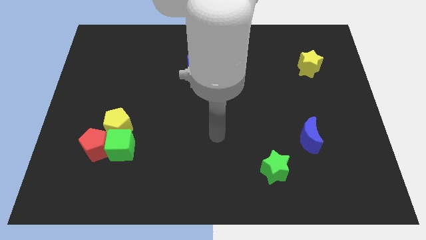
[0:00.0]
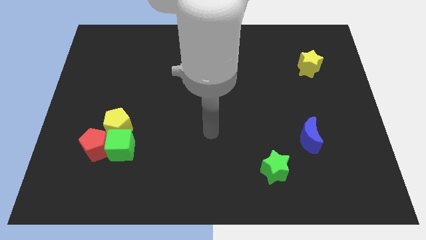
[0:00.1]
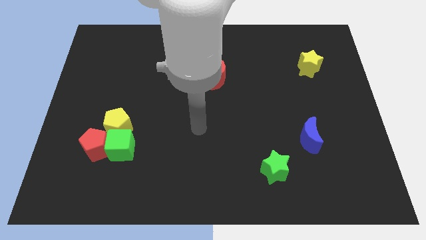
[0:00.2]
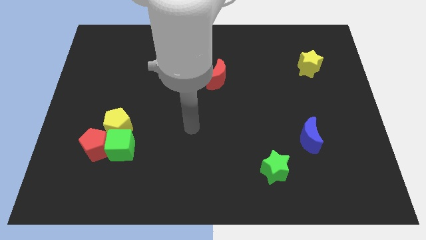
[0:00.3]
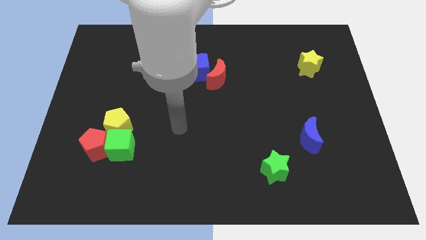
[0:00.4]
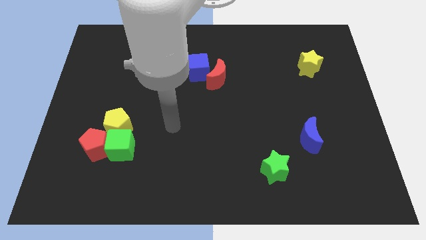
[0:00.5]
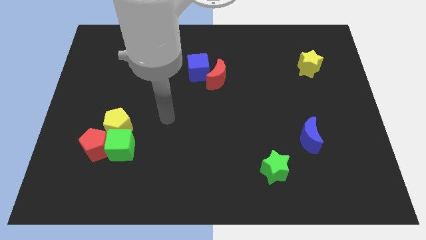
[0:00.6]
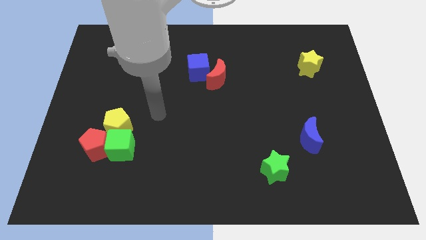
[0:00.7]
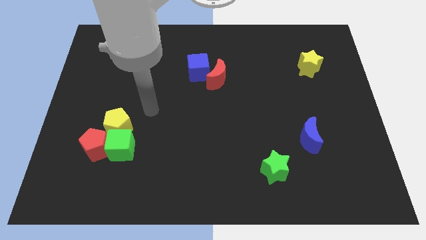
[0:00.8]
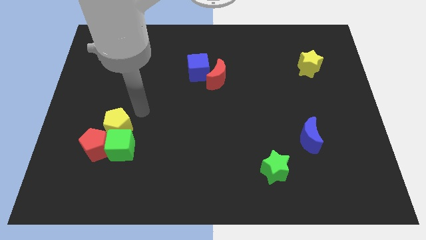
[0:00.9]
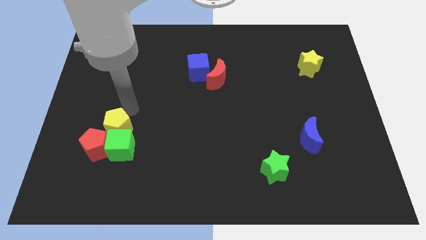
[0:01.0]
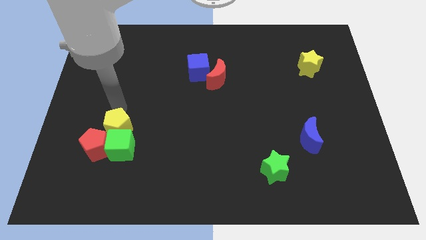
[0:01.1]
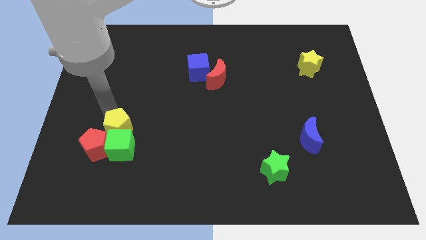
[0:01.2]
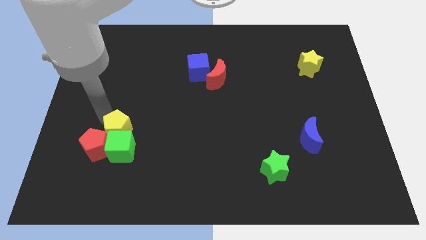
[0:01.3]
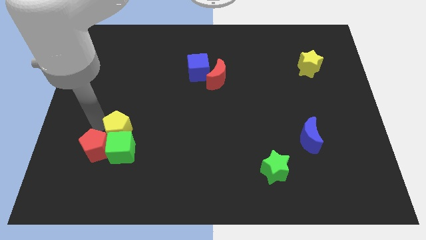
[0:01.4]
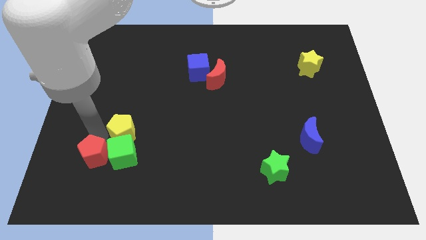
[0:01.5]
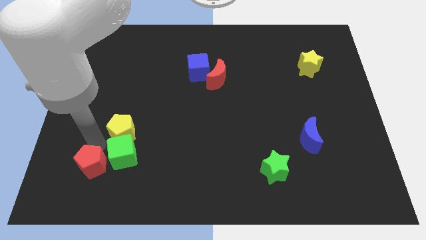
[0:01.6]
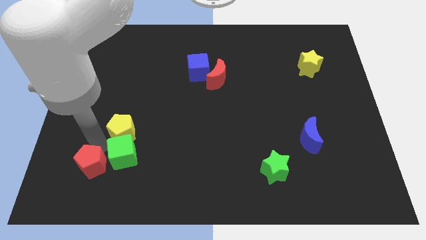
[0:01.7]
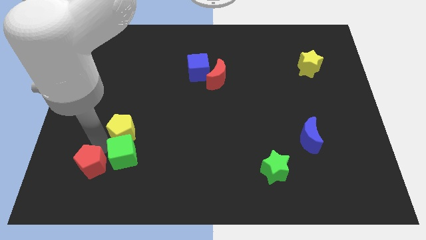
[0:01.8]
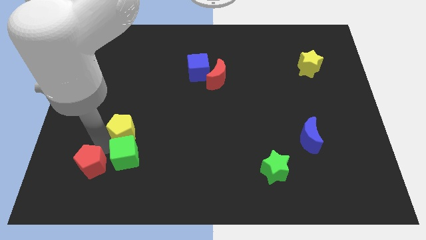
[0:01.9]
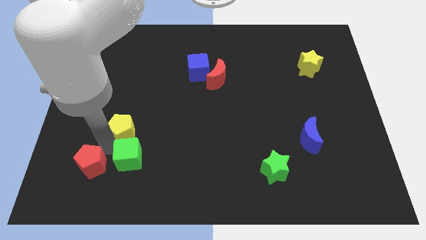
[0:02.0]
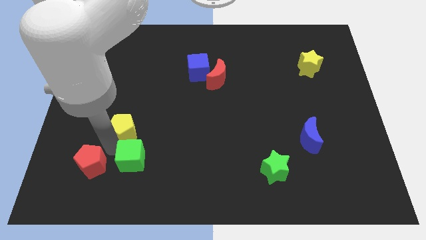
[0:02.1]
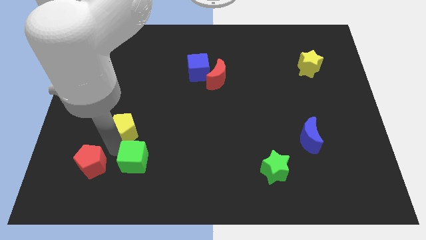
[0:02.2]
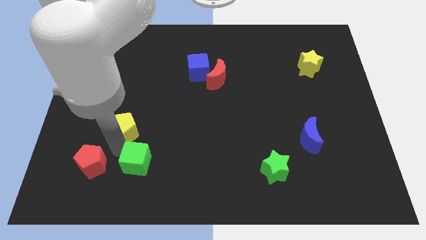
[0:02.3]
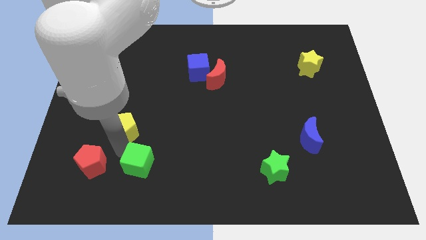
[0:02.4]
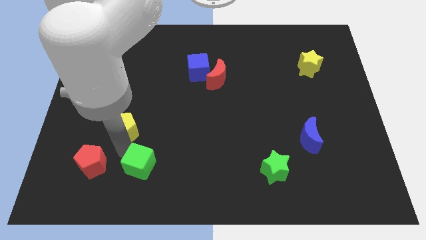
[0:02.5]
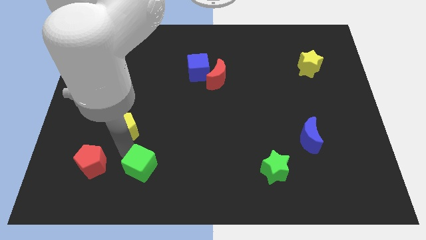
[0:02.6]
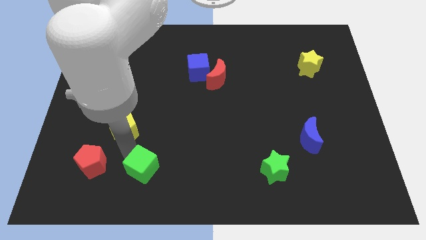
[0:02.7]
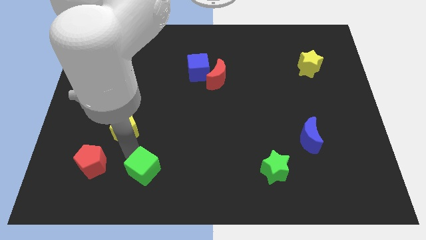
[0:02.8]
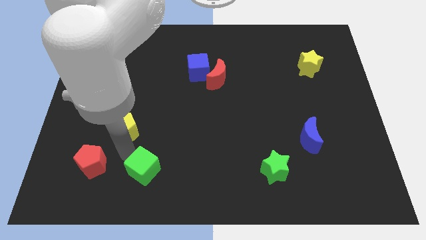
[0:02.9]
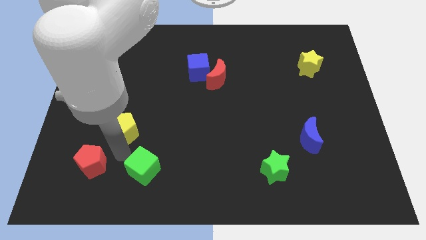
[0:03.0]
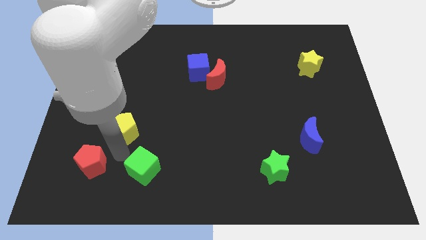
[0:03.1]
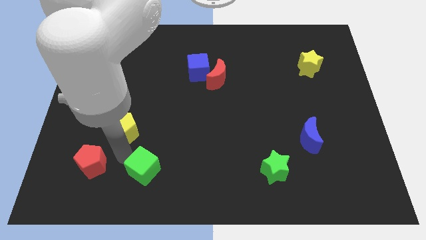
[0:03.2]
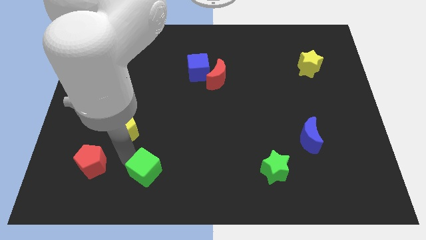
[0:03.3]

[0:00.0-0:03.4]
pull the green cube apart from the red pentagon and yellow pentagon

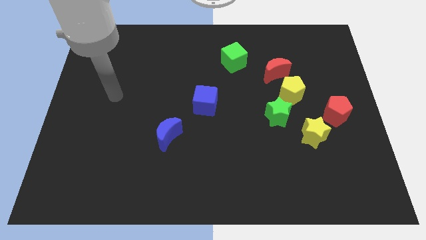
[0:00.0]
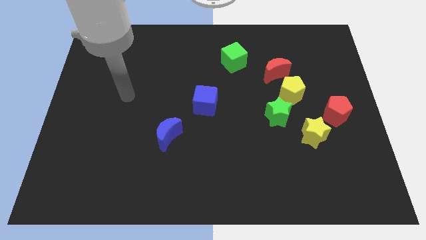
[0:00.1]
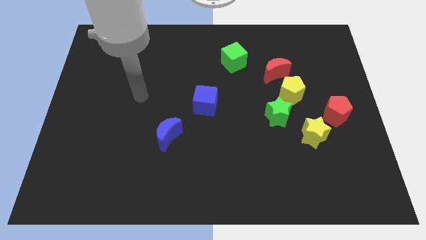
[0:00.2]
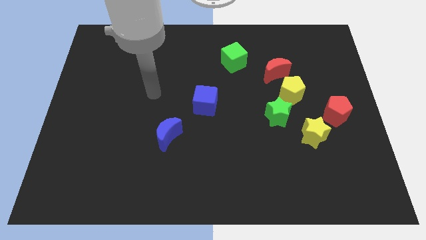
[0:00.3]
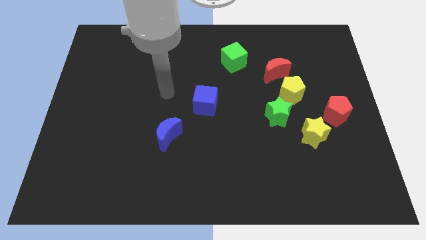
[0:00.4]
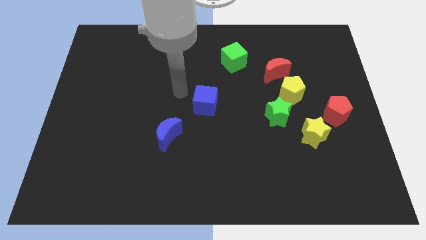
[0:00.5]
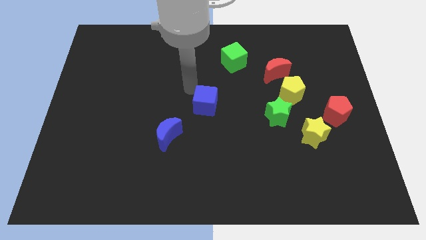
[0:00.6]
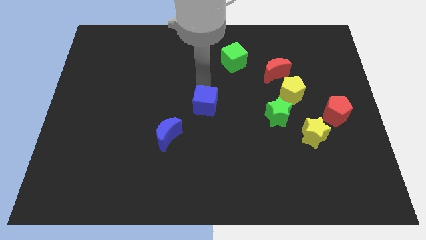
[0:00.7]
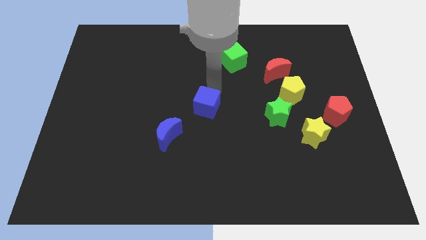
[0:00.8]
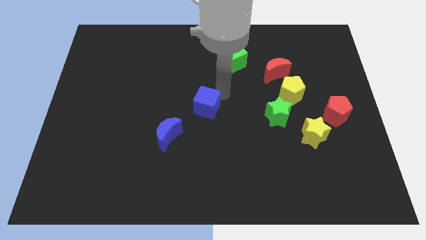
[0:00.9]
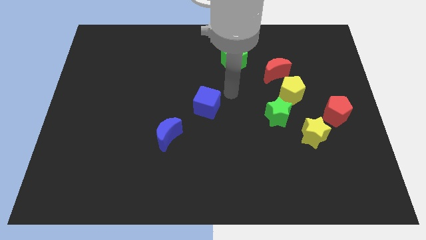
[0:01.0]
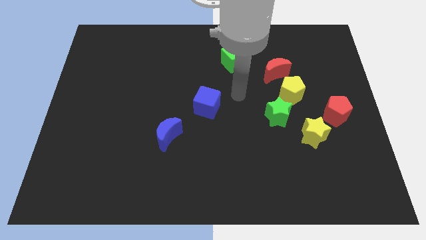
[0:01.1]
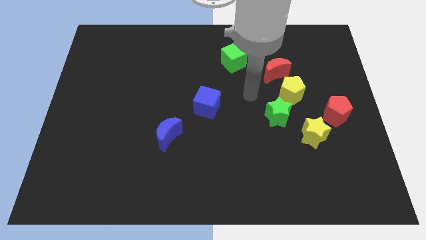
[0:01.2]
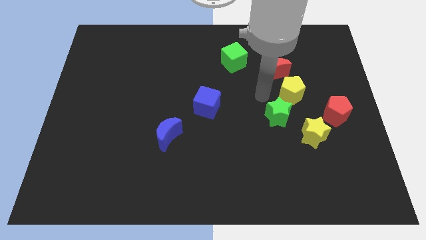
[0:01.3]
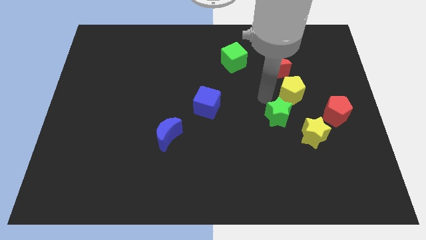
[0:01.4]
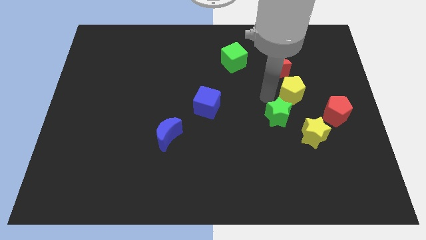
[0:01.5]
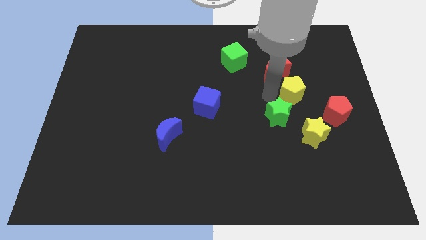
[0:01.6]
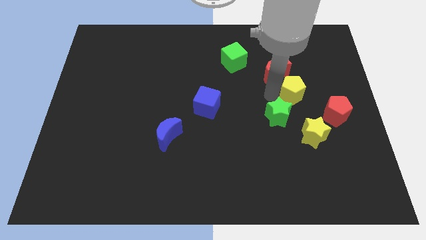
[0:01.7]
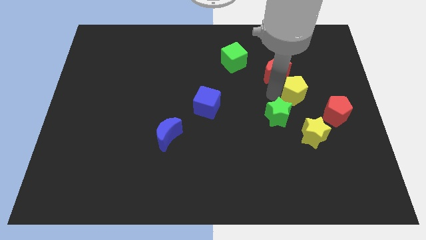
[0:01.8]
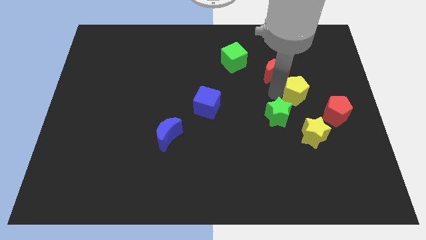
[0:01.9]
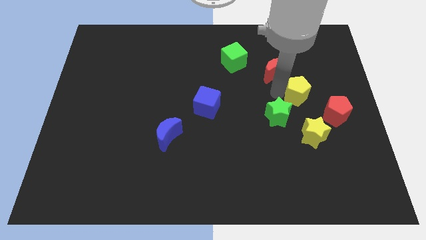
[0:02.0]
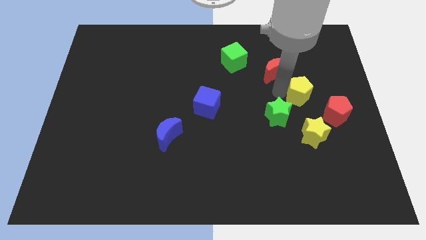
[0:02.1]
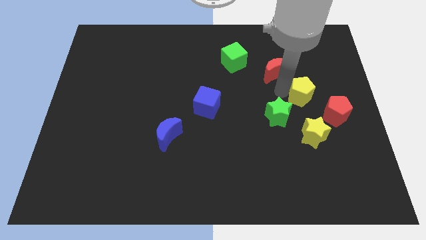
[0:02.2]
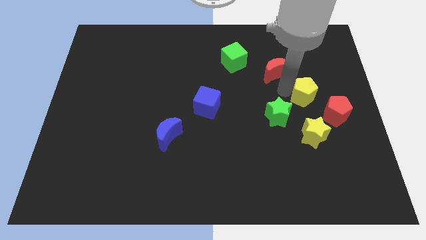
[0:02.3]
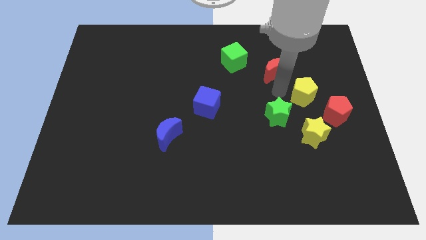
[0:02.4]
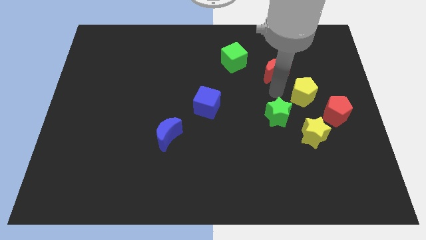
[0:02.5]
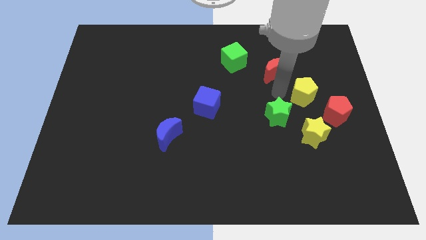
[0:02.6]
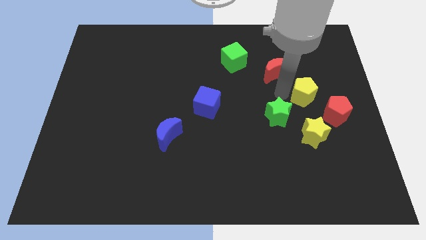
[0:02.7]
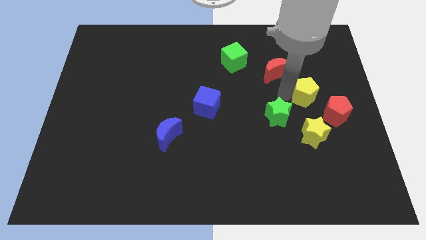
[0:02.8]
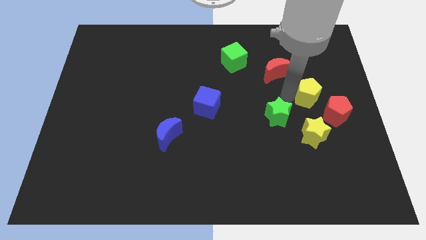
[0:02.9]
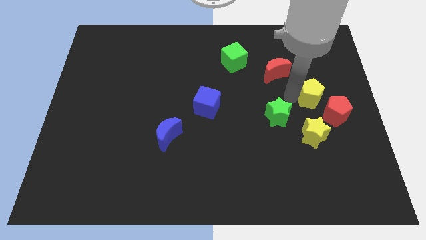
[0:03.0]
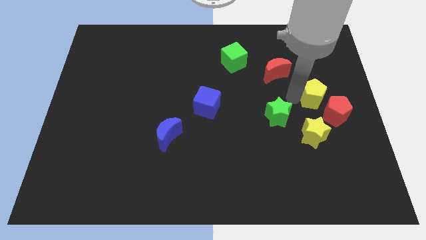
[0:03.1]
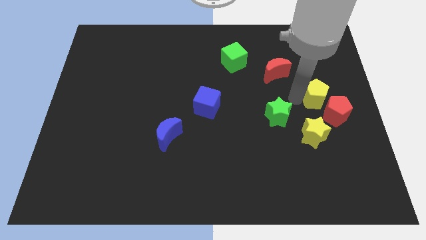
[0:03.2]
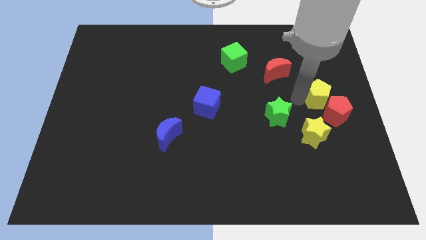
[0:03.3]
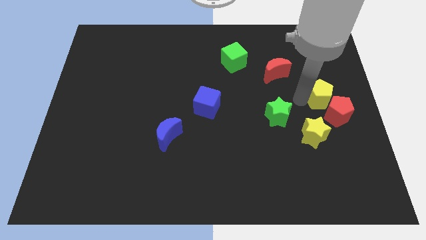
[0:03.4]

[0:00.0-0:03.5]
move the yellow pentagon away from the green star and red moon

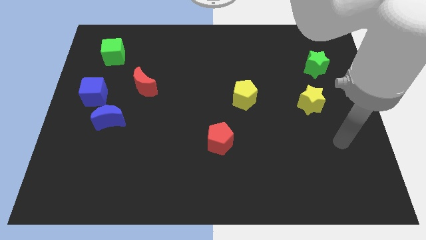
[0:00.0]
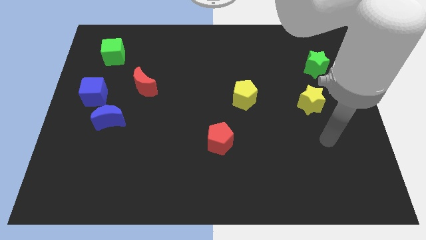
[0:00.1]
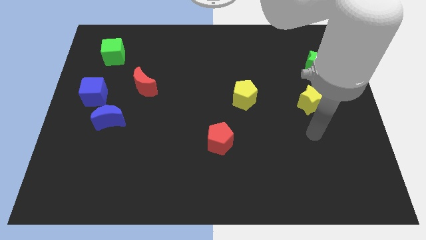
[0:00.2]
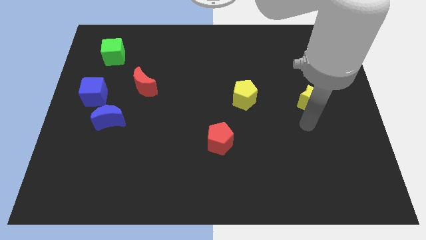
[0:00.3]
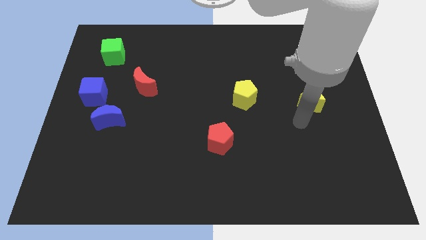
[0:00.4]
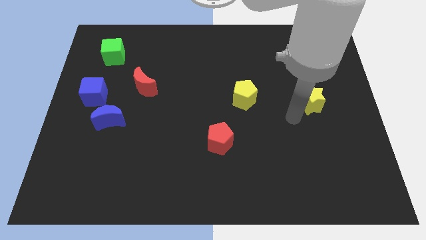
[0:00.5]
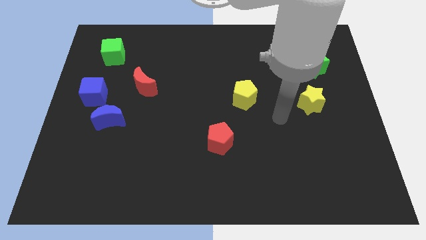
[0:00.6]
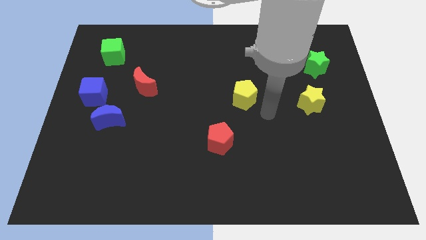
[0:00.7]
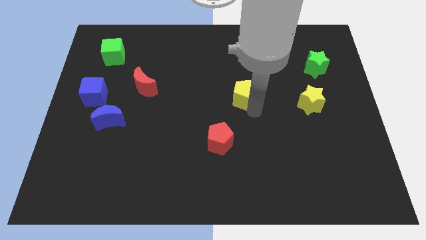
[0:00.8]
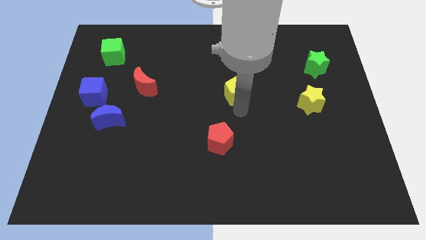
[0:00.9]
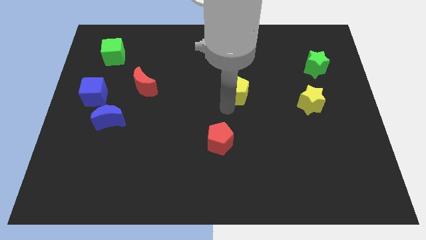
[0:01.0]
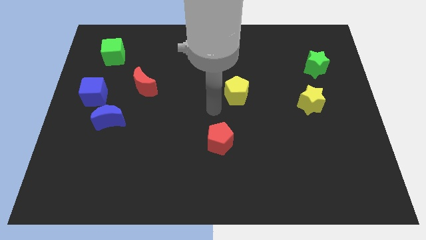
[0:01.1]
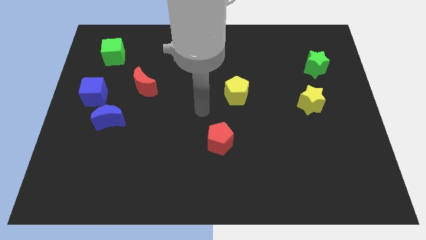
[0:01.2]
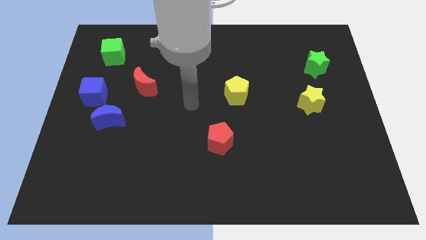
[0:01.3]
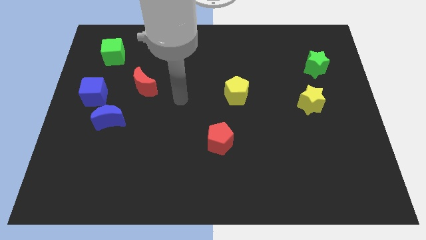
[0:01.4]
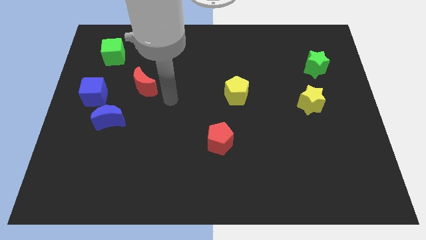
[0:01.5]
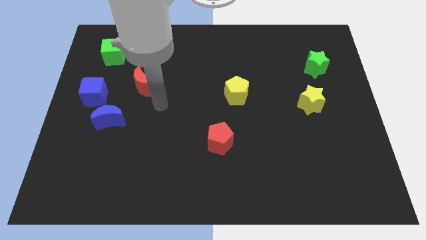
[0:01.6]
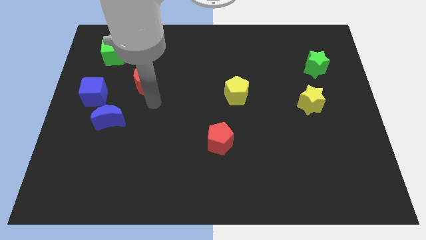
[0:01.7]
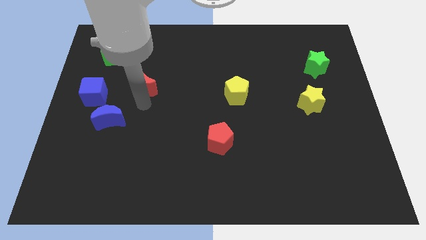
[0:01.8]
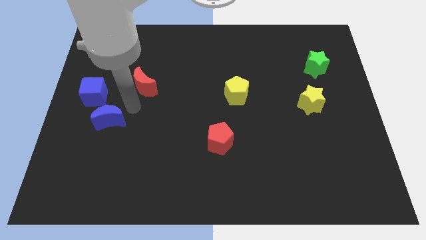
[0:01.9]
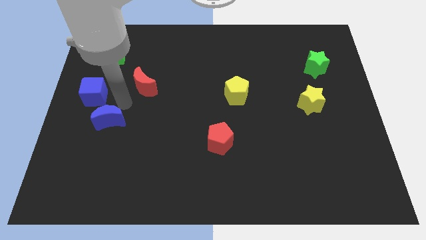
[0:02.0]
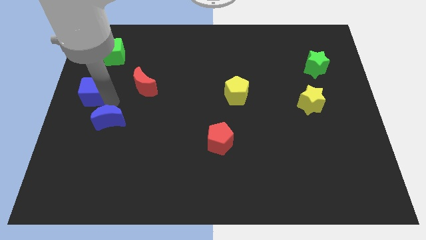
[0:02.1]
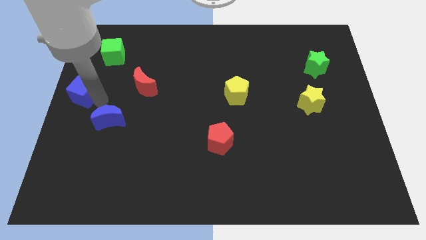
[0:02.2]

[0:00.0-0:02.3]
separate the blue moon from the blue cube

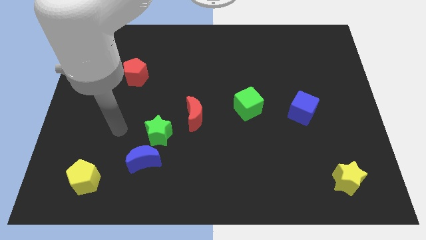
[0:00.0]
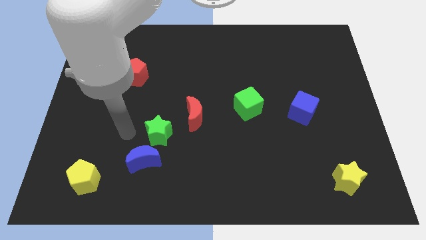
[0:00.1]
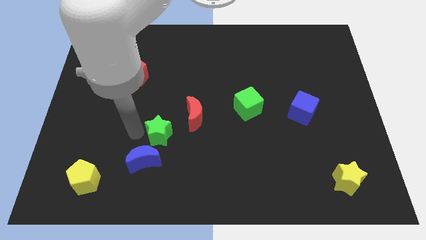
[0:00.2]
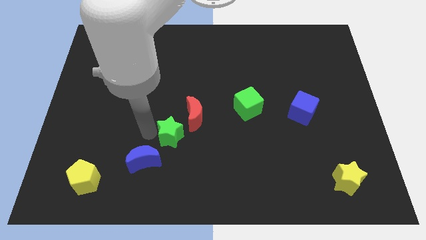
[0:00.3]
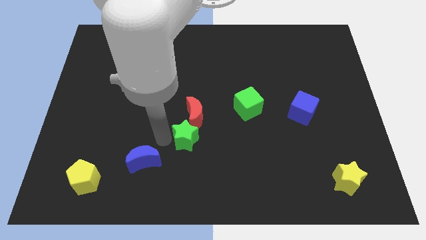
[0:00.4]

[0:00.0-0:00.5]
separate the blue moon from the green star
